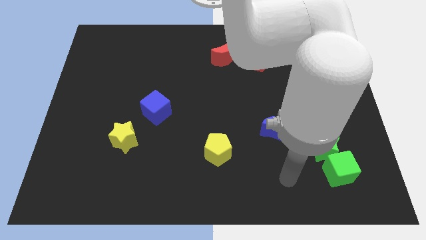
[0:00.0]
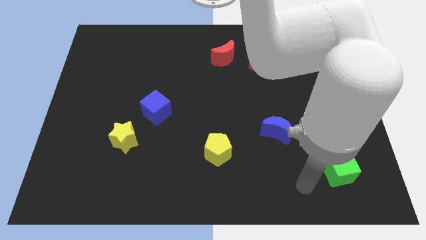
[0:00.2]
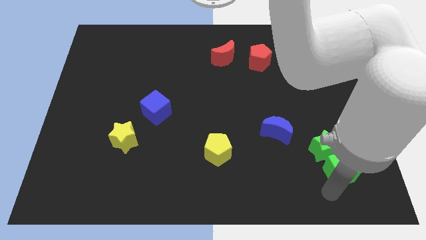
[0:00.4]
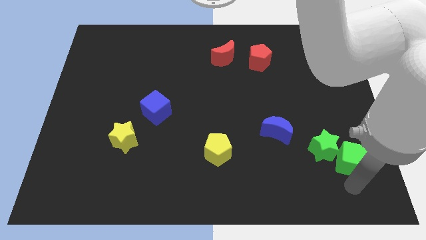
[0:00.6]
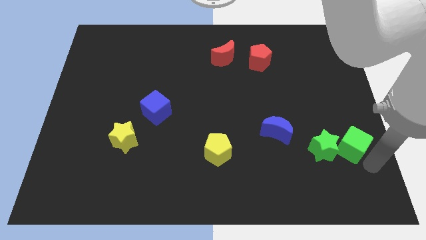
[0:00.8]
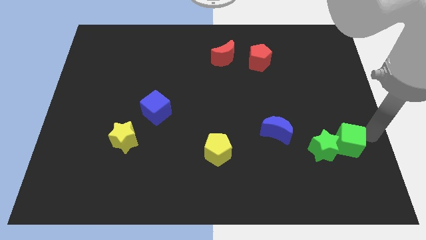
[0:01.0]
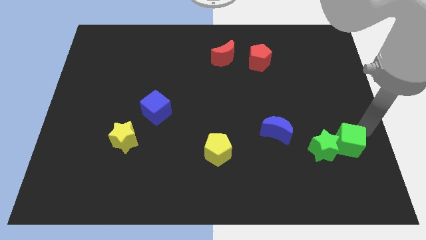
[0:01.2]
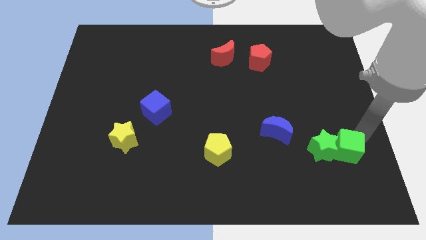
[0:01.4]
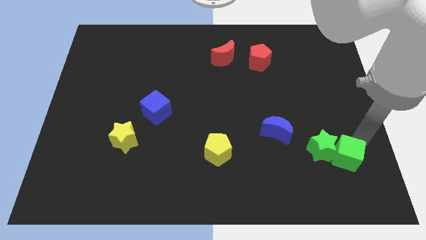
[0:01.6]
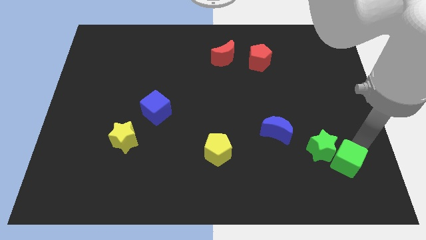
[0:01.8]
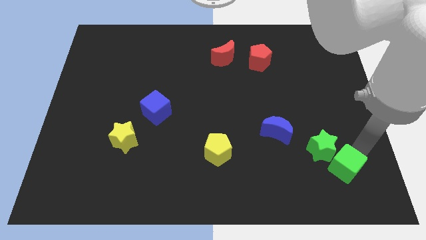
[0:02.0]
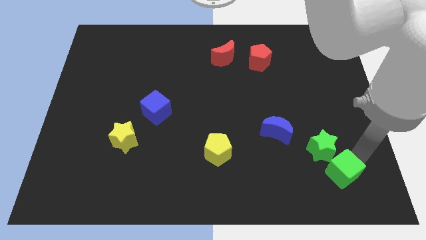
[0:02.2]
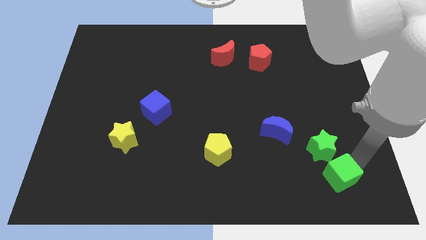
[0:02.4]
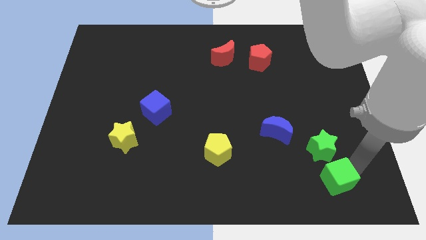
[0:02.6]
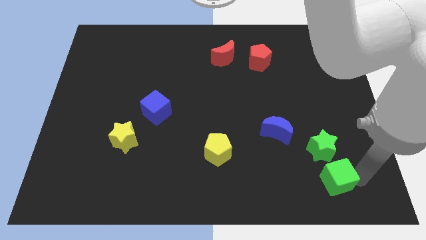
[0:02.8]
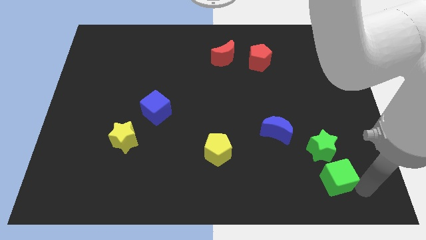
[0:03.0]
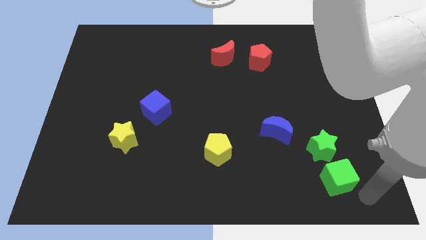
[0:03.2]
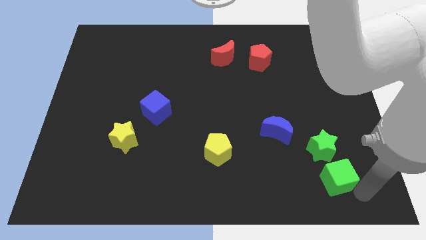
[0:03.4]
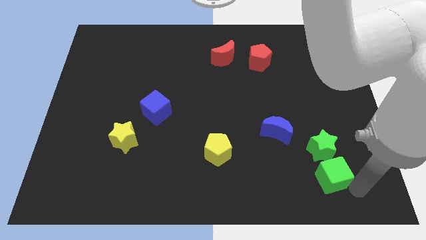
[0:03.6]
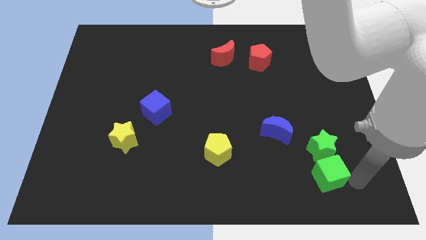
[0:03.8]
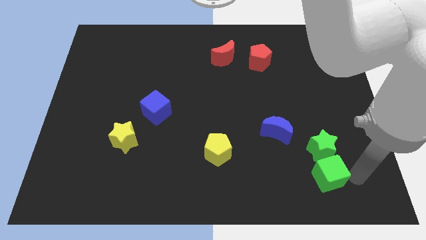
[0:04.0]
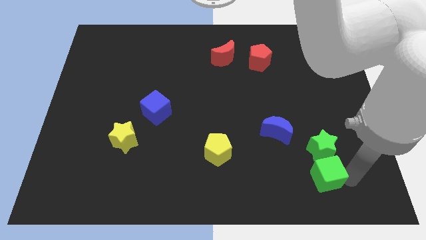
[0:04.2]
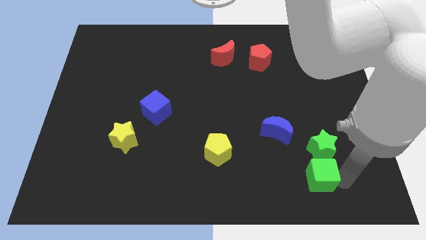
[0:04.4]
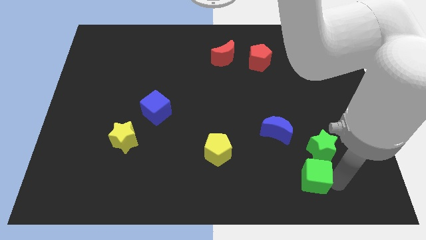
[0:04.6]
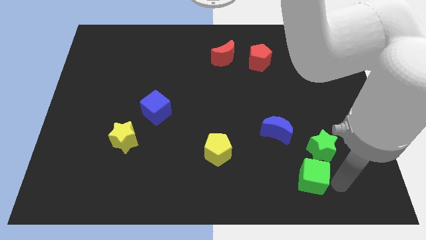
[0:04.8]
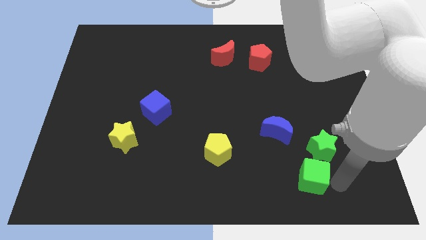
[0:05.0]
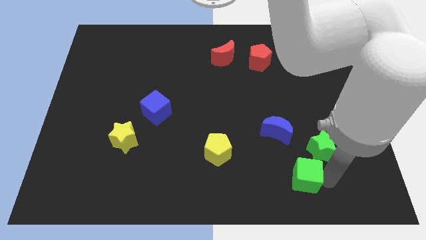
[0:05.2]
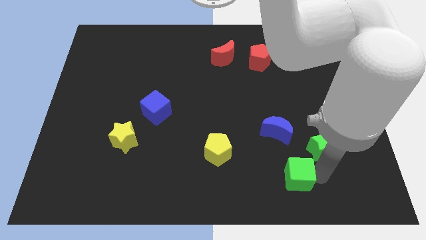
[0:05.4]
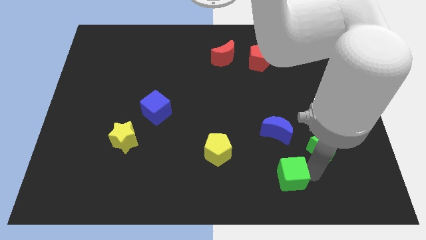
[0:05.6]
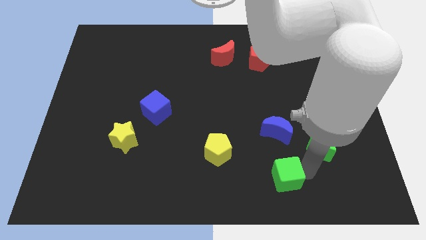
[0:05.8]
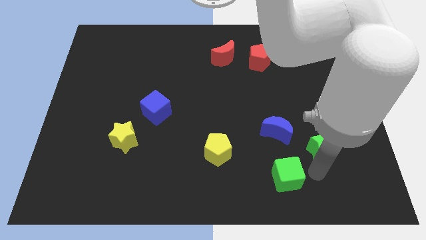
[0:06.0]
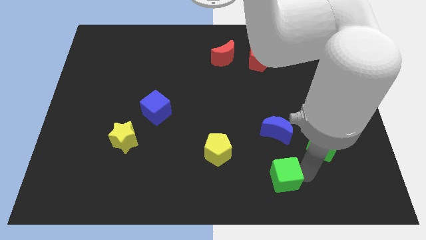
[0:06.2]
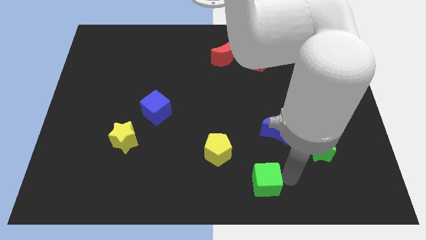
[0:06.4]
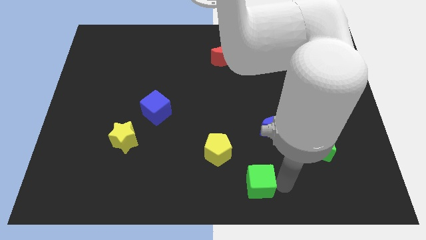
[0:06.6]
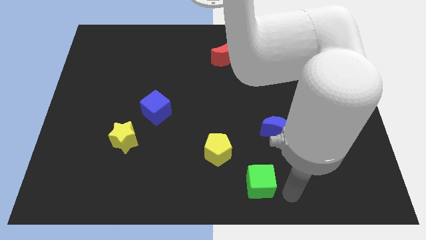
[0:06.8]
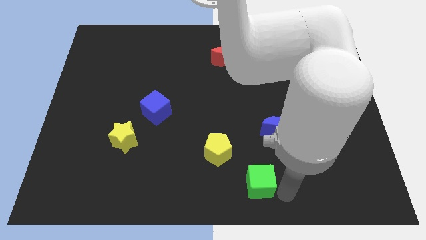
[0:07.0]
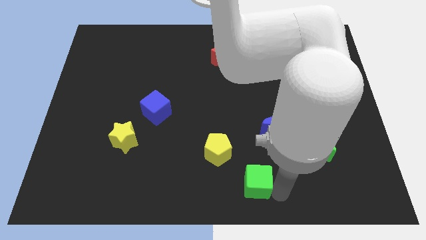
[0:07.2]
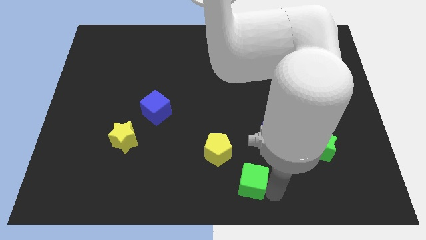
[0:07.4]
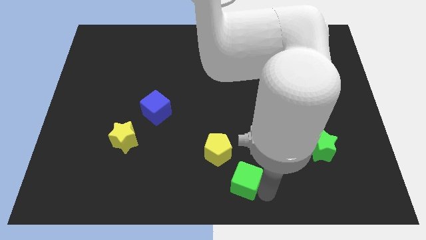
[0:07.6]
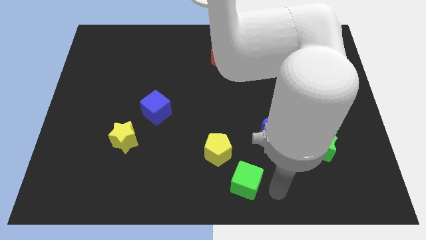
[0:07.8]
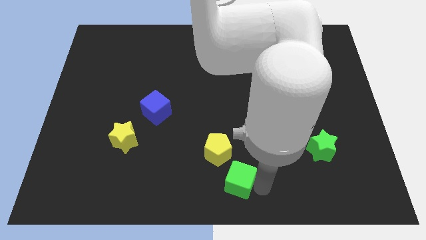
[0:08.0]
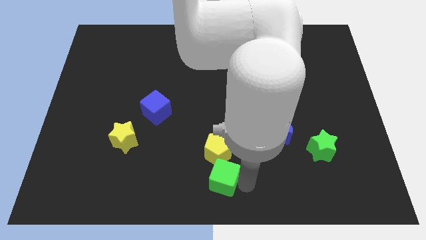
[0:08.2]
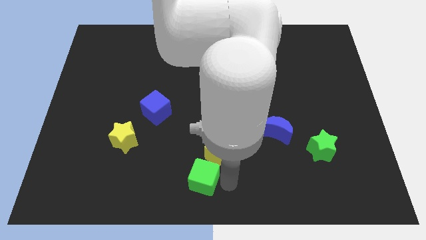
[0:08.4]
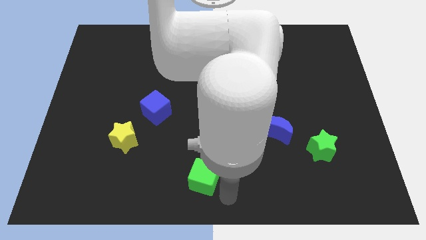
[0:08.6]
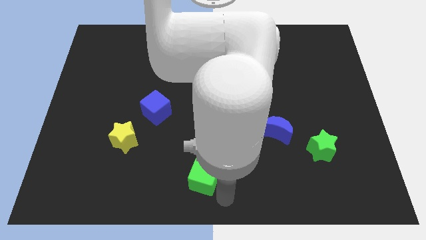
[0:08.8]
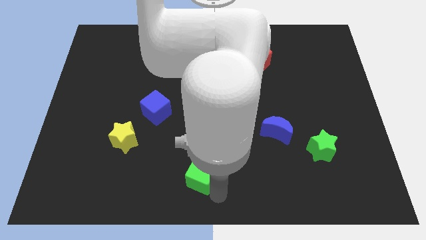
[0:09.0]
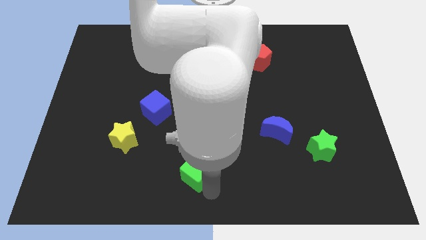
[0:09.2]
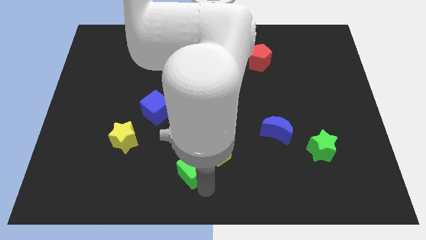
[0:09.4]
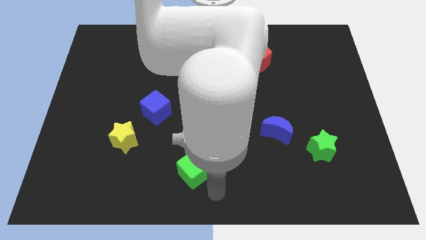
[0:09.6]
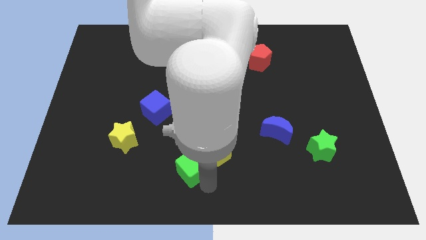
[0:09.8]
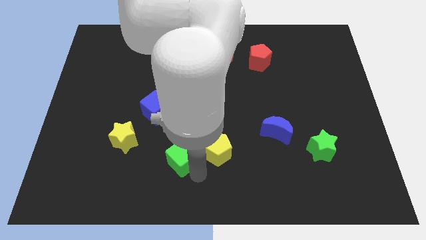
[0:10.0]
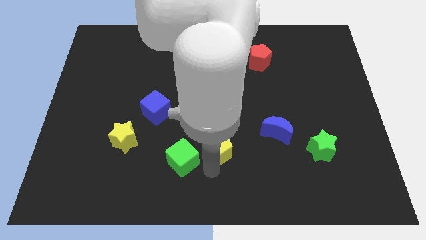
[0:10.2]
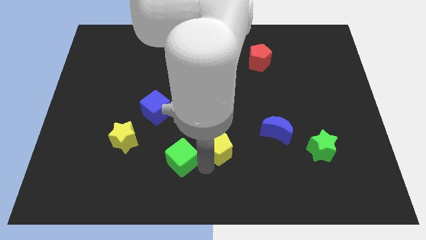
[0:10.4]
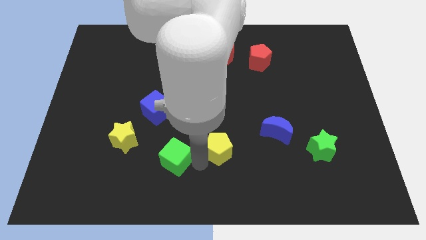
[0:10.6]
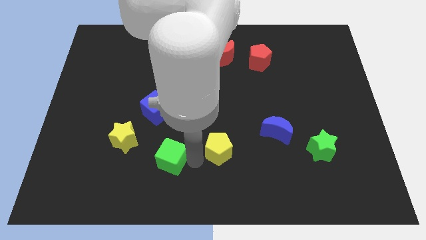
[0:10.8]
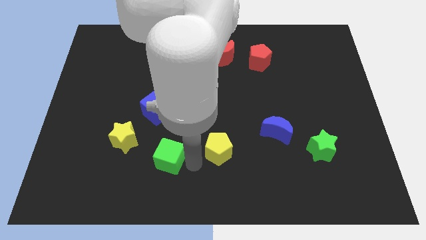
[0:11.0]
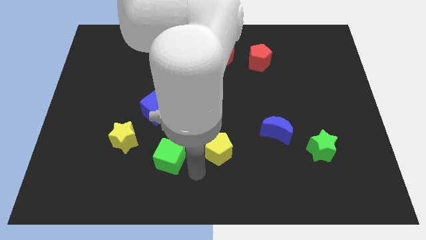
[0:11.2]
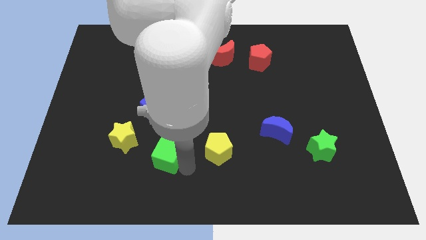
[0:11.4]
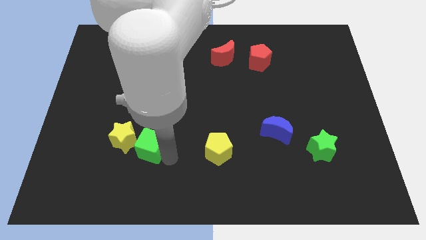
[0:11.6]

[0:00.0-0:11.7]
put the green cube next to the yellow star
